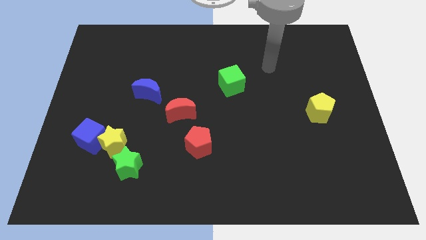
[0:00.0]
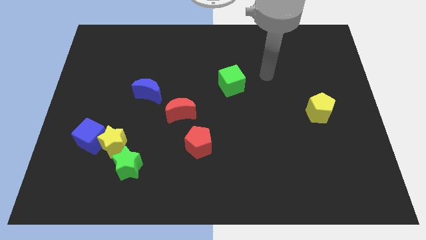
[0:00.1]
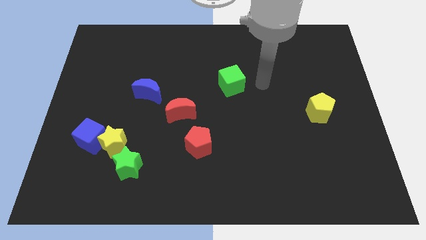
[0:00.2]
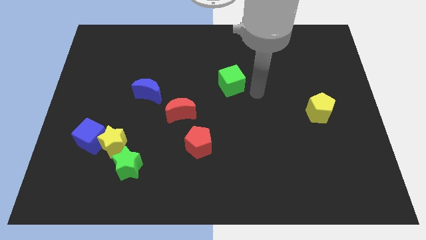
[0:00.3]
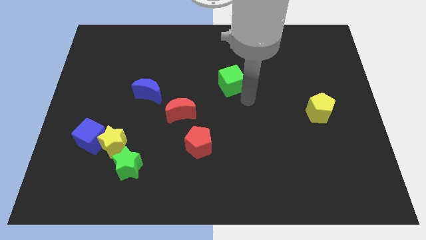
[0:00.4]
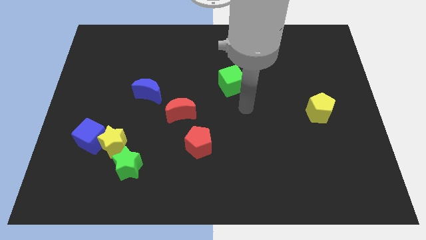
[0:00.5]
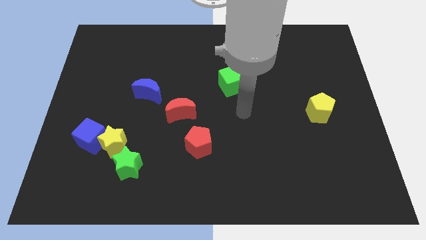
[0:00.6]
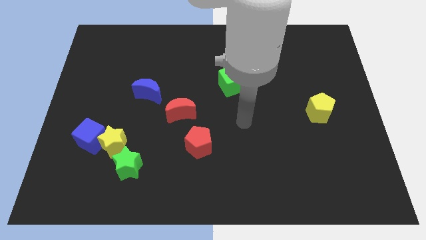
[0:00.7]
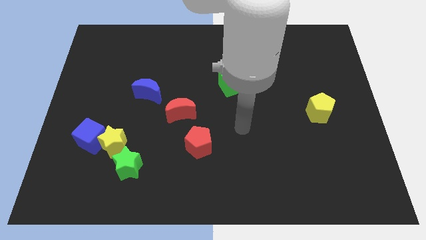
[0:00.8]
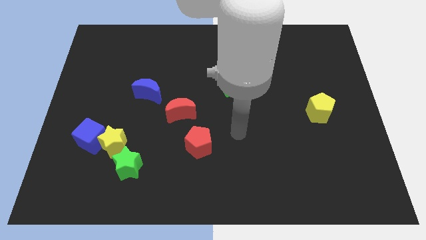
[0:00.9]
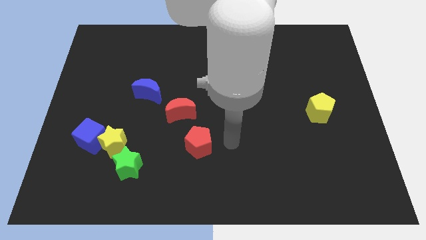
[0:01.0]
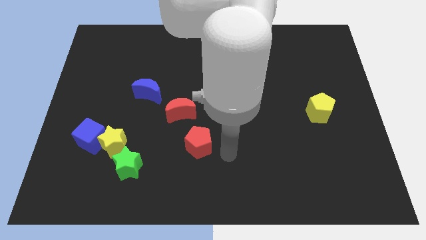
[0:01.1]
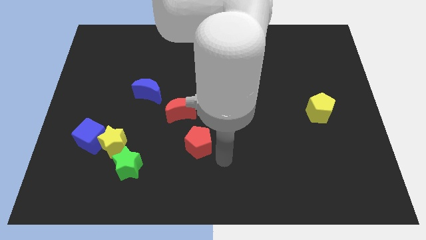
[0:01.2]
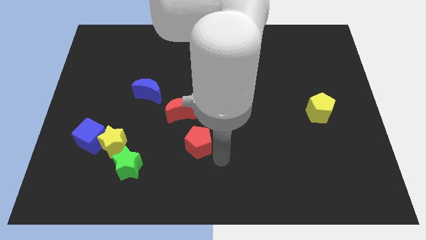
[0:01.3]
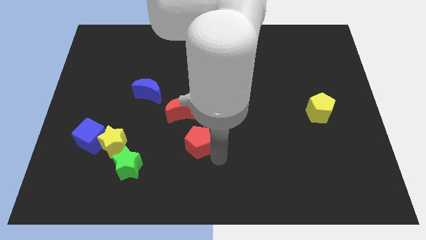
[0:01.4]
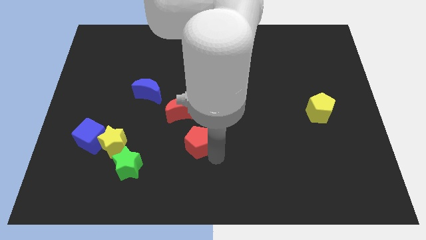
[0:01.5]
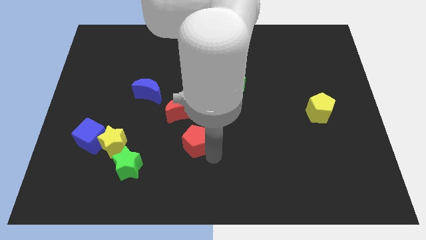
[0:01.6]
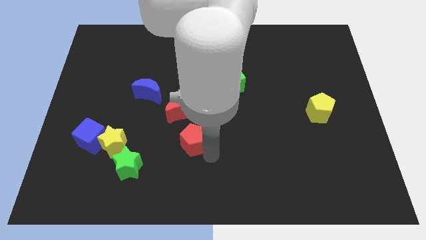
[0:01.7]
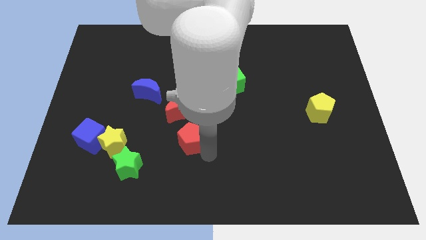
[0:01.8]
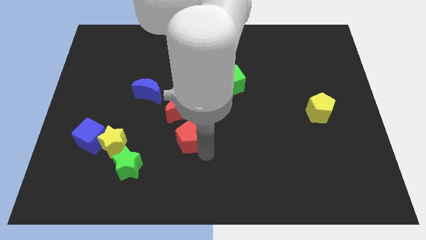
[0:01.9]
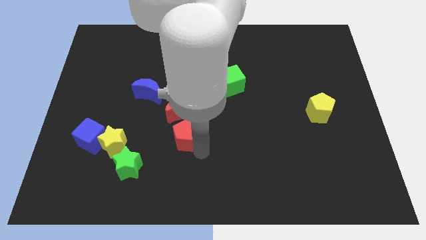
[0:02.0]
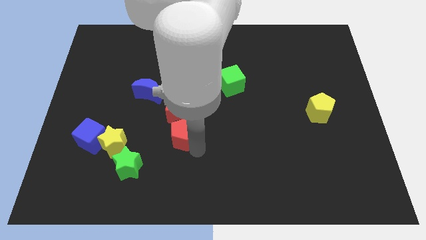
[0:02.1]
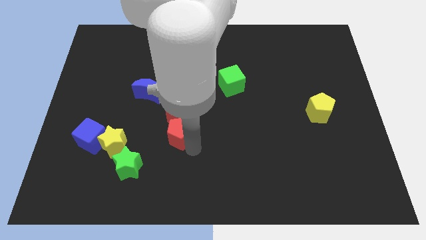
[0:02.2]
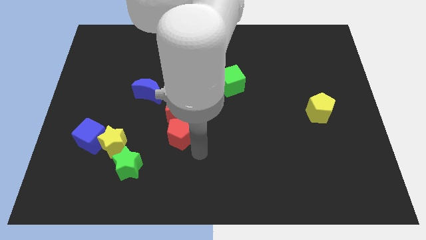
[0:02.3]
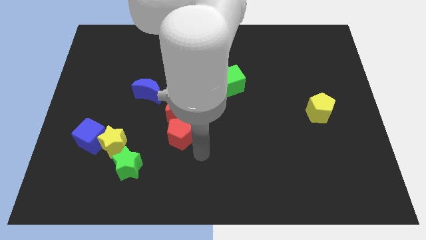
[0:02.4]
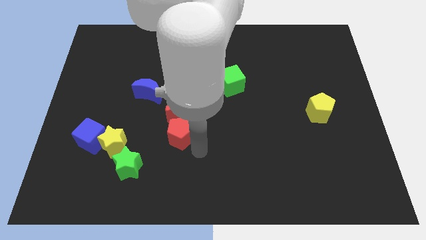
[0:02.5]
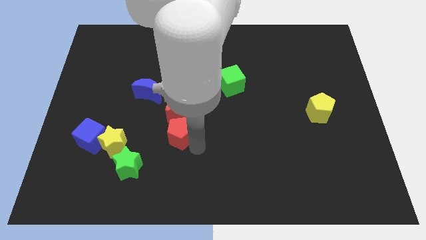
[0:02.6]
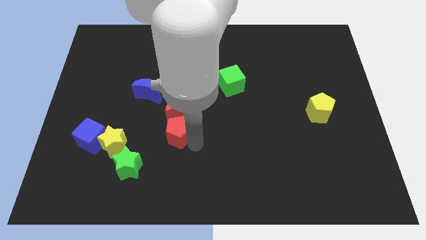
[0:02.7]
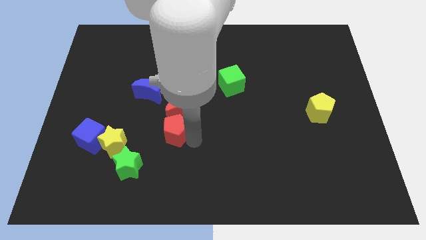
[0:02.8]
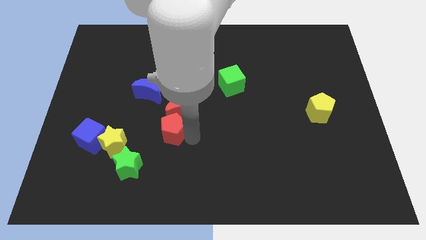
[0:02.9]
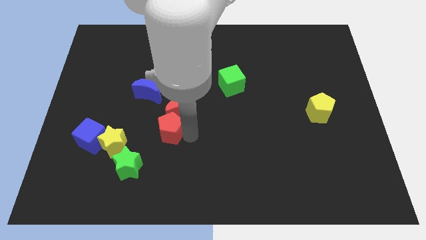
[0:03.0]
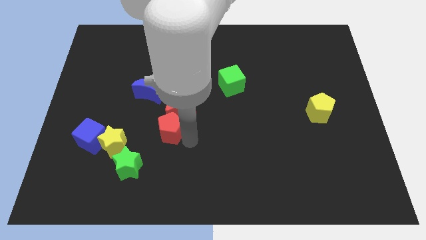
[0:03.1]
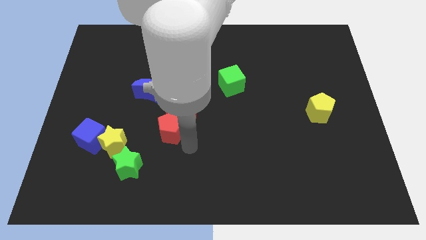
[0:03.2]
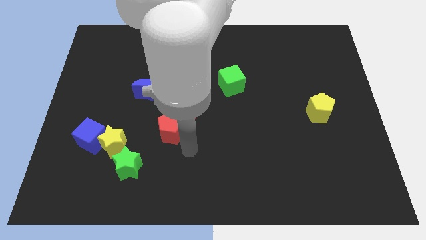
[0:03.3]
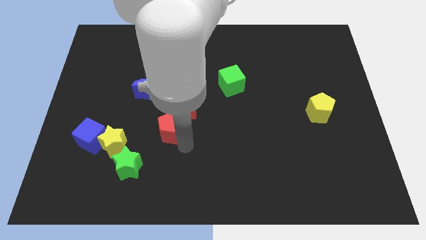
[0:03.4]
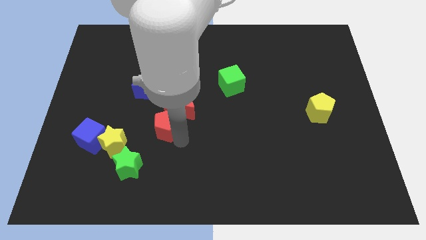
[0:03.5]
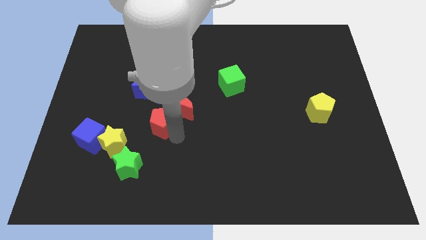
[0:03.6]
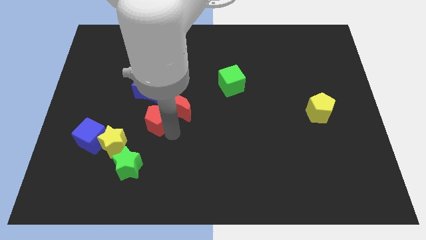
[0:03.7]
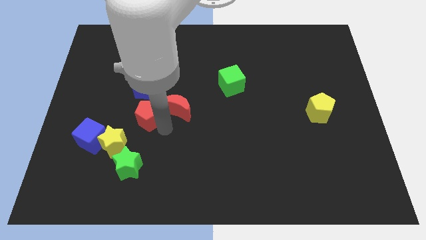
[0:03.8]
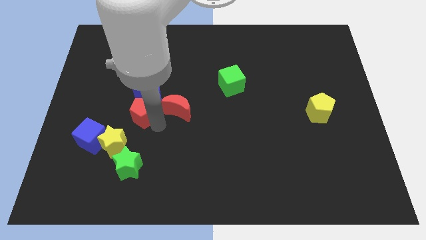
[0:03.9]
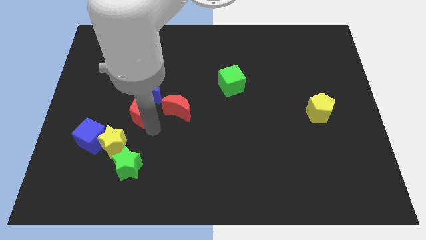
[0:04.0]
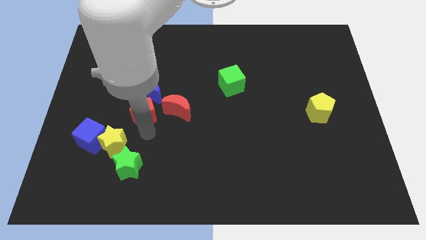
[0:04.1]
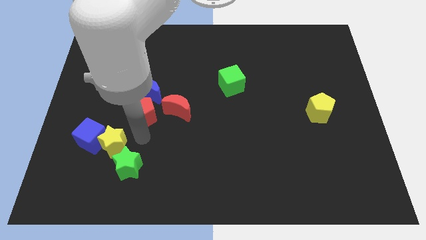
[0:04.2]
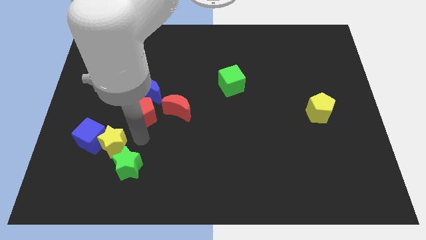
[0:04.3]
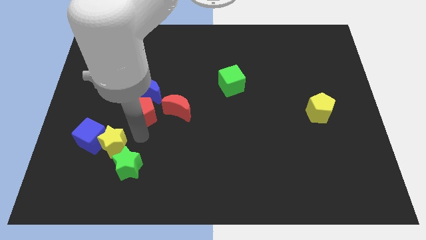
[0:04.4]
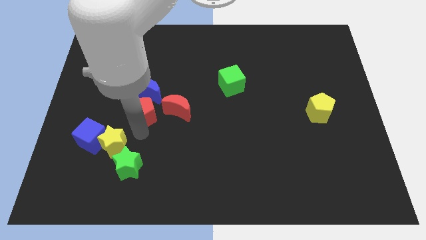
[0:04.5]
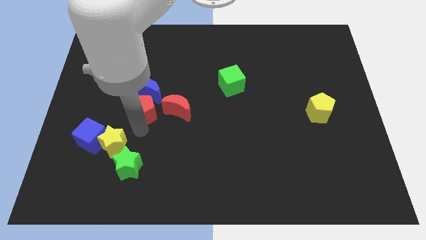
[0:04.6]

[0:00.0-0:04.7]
push the red pentagon next to the blue moon

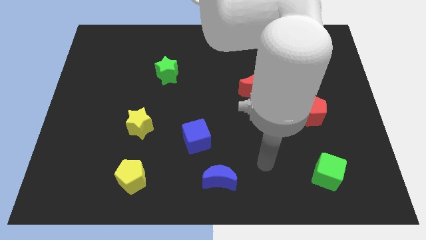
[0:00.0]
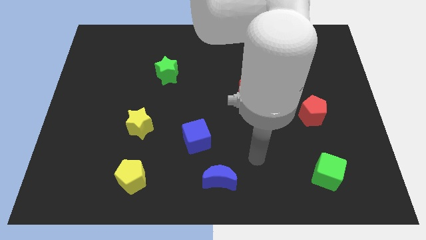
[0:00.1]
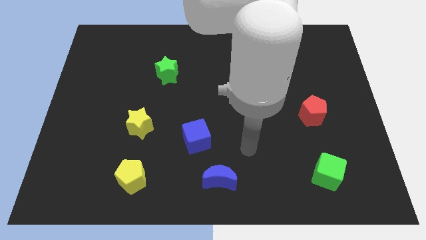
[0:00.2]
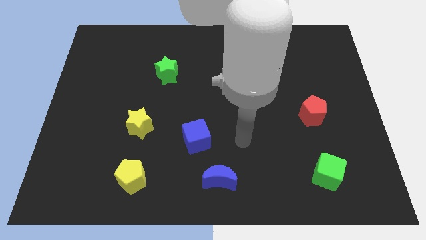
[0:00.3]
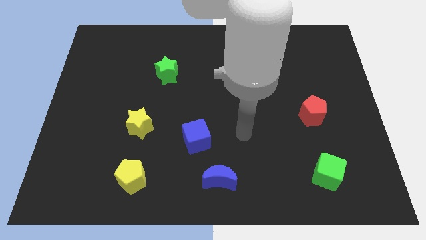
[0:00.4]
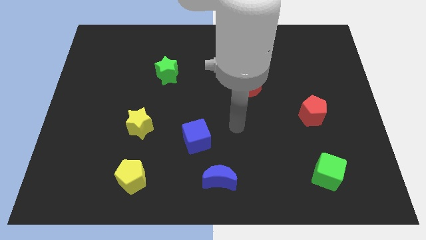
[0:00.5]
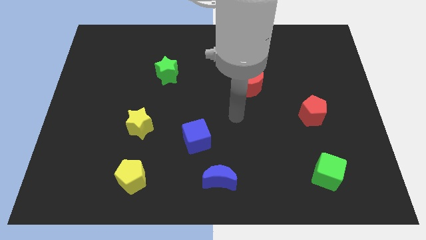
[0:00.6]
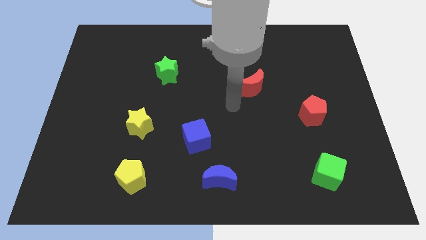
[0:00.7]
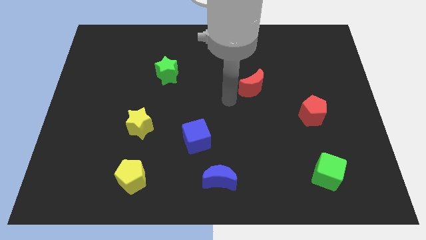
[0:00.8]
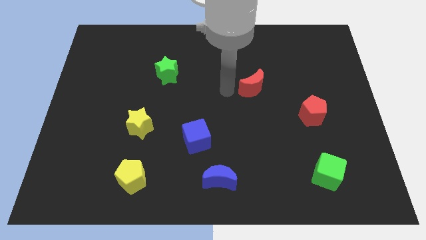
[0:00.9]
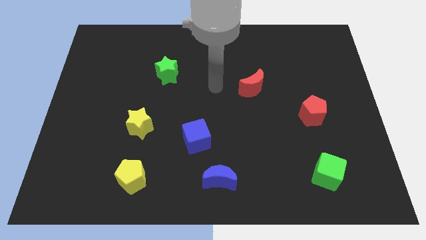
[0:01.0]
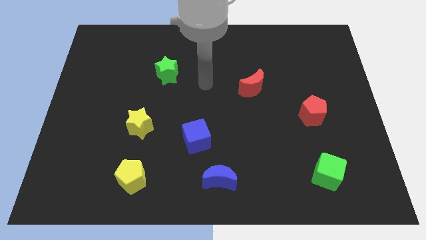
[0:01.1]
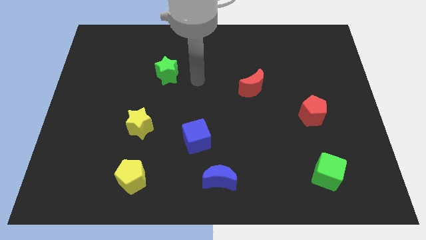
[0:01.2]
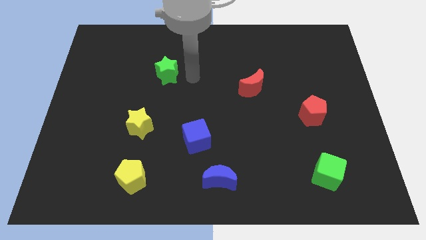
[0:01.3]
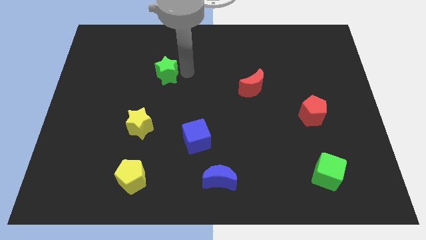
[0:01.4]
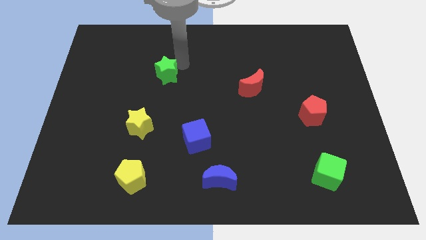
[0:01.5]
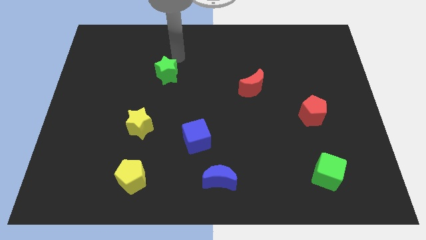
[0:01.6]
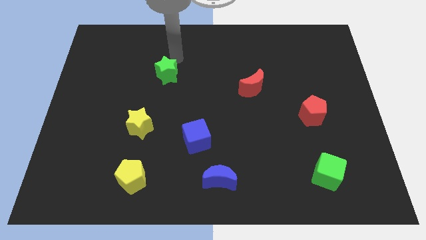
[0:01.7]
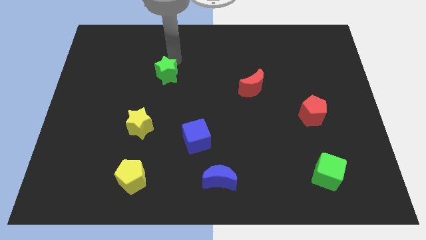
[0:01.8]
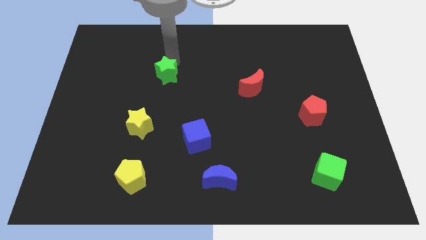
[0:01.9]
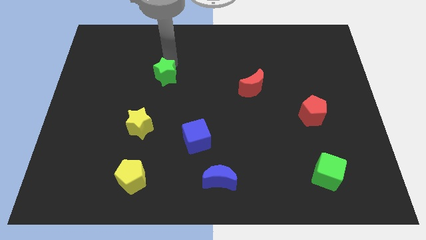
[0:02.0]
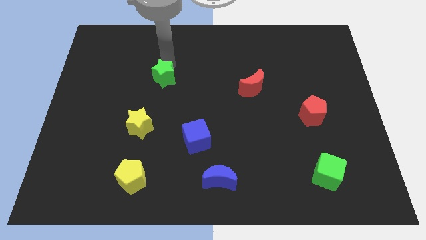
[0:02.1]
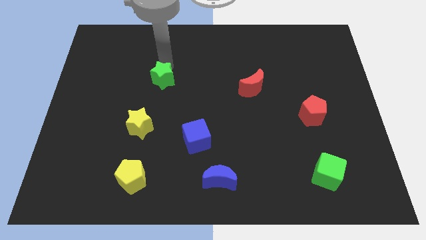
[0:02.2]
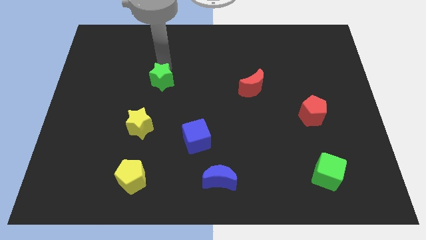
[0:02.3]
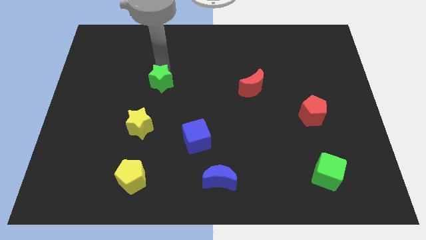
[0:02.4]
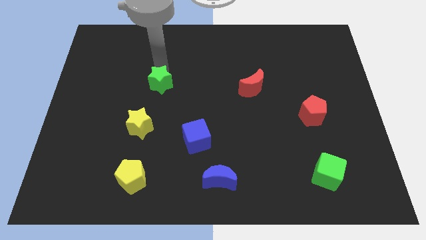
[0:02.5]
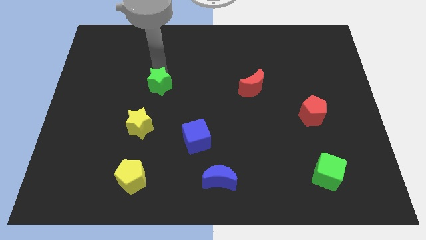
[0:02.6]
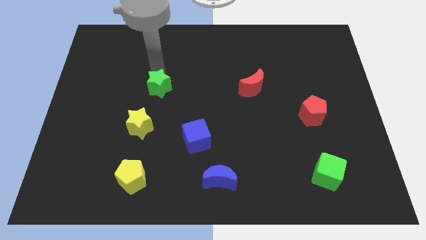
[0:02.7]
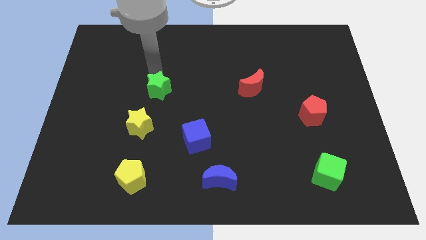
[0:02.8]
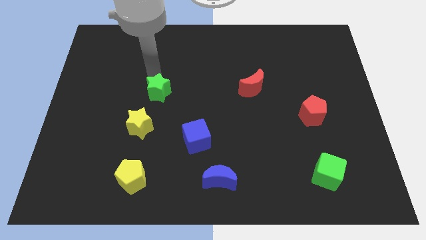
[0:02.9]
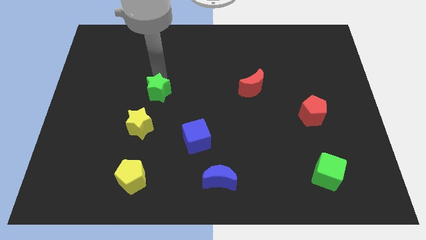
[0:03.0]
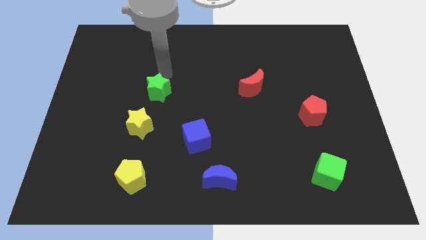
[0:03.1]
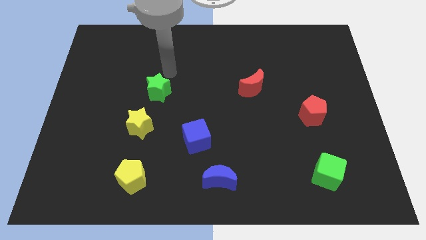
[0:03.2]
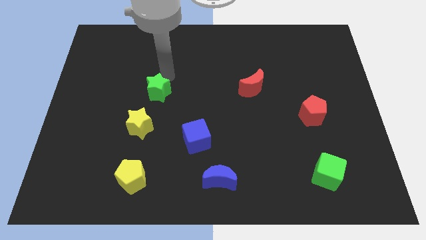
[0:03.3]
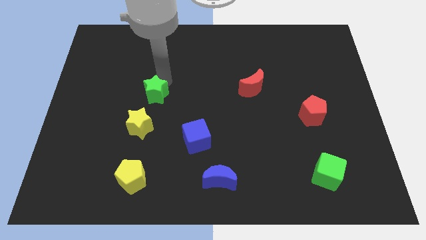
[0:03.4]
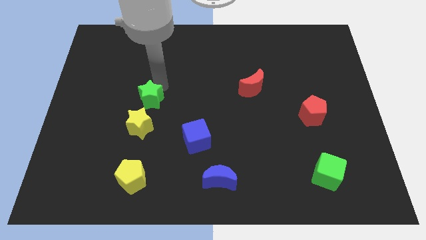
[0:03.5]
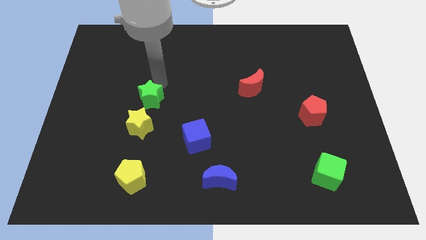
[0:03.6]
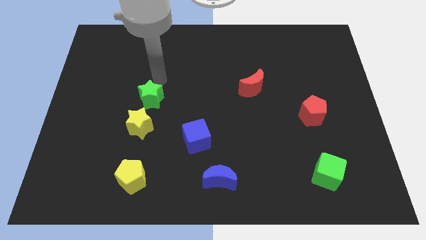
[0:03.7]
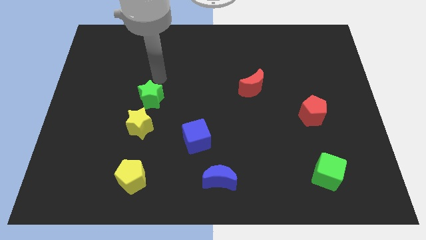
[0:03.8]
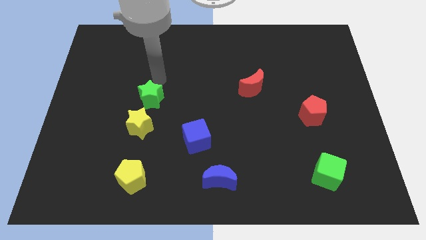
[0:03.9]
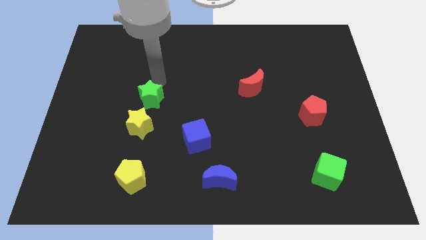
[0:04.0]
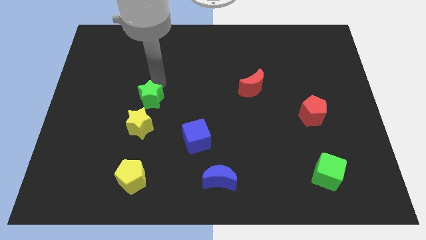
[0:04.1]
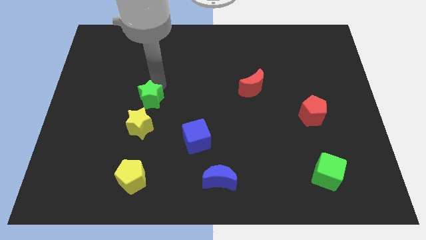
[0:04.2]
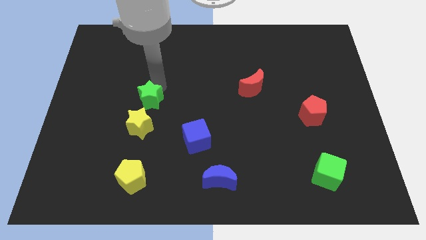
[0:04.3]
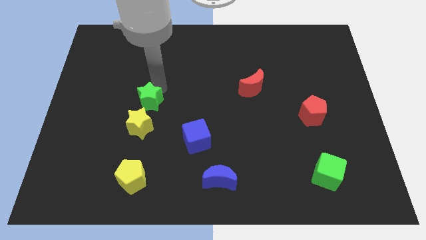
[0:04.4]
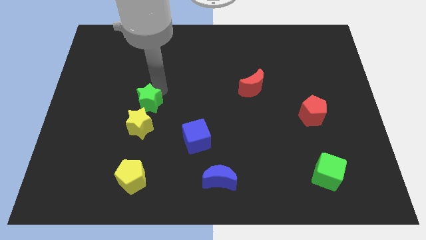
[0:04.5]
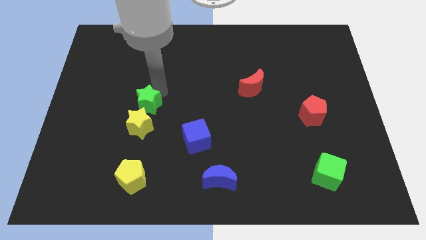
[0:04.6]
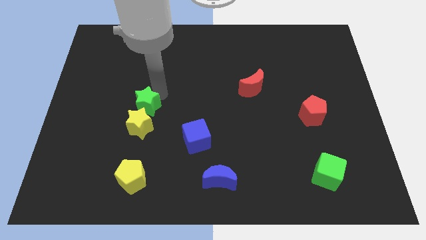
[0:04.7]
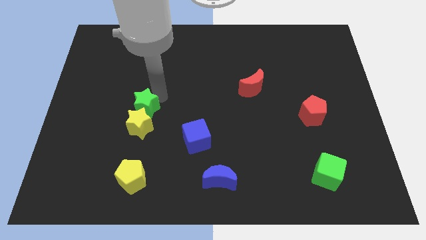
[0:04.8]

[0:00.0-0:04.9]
slide the green star towards the yellow star
